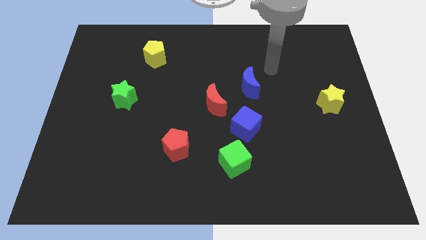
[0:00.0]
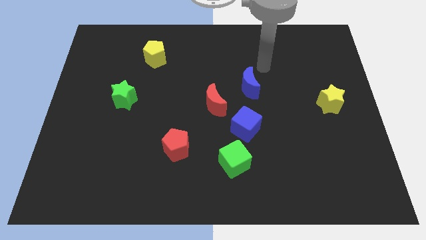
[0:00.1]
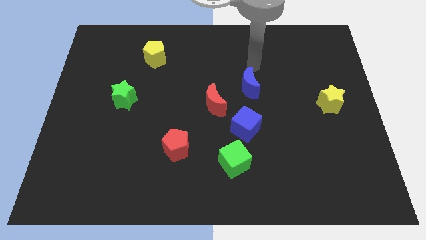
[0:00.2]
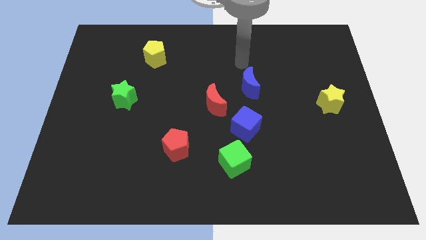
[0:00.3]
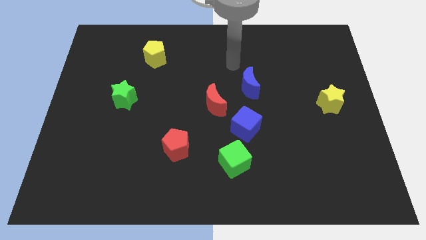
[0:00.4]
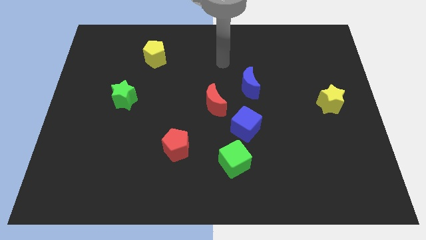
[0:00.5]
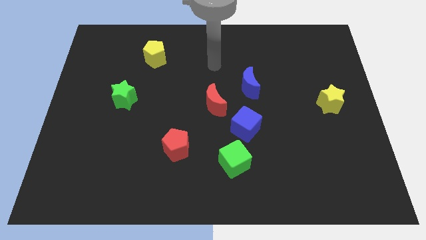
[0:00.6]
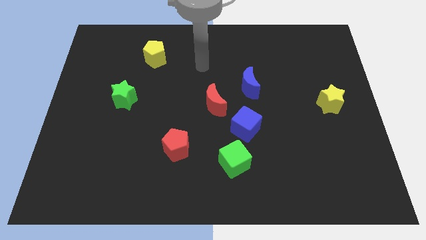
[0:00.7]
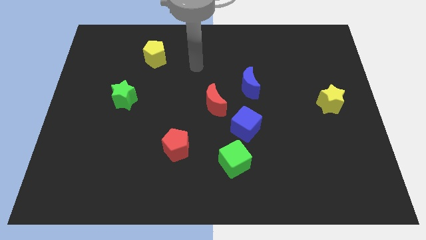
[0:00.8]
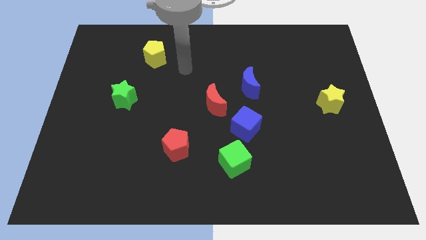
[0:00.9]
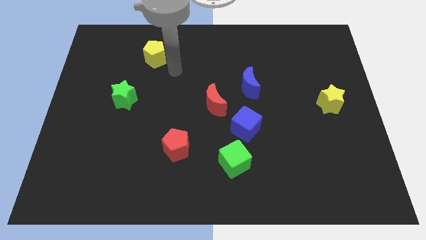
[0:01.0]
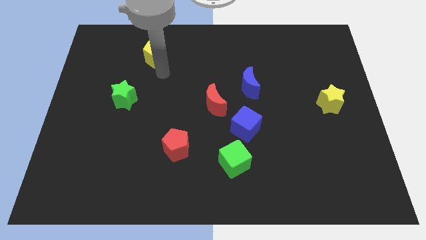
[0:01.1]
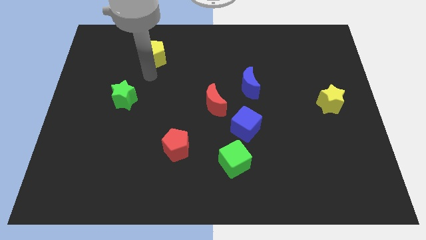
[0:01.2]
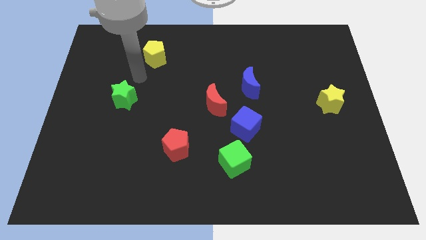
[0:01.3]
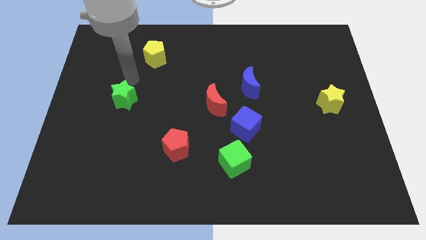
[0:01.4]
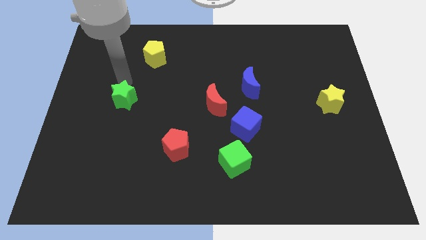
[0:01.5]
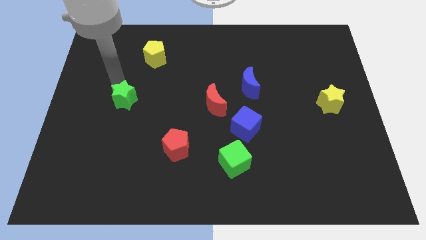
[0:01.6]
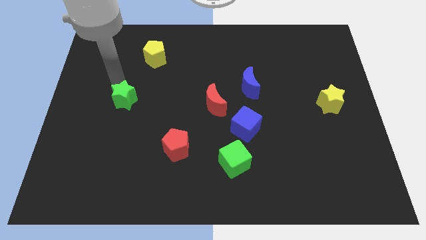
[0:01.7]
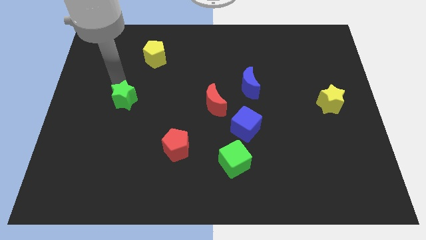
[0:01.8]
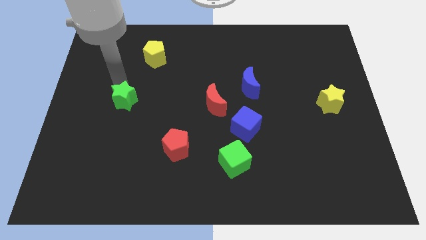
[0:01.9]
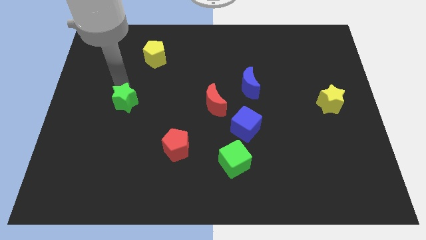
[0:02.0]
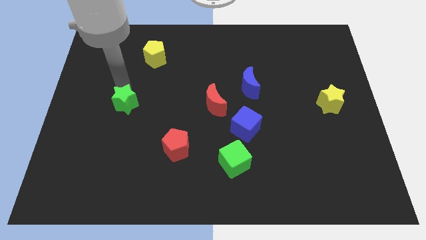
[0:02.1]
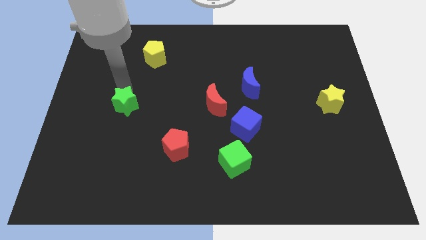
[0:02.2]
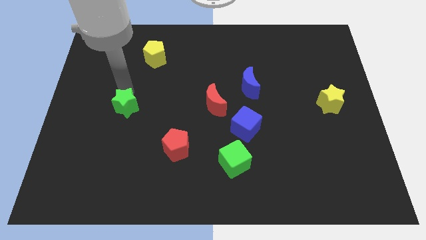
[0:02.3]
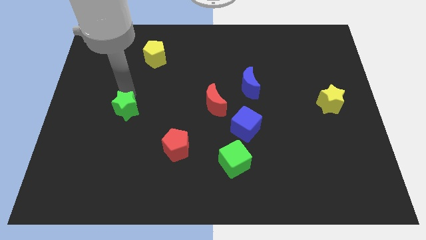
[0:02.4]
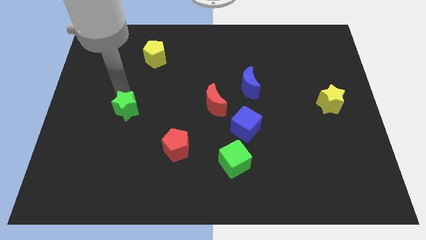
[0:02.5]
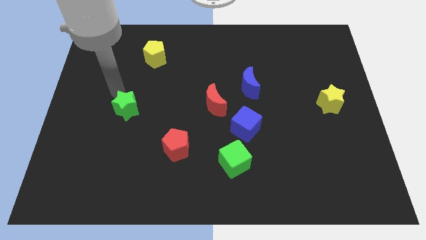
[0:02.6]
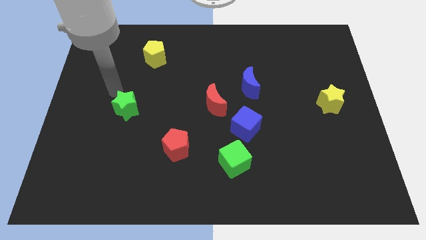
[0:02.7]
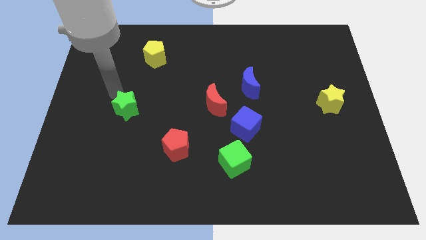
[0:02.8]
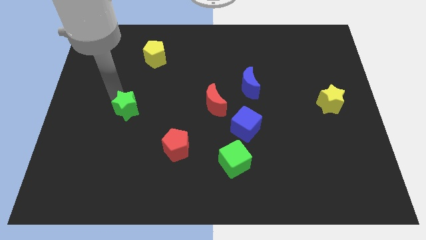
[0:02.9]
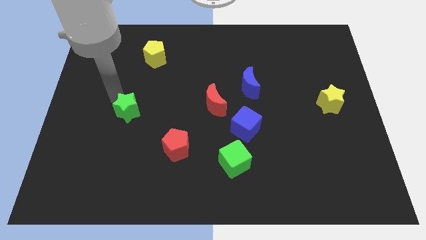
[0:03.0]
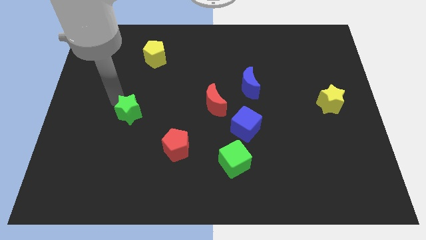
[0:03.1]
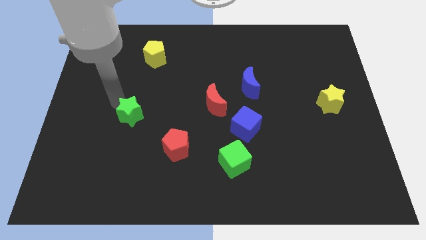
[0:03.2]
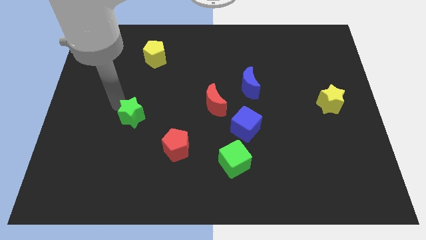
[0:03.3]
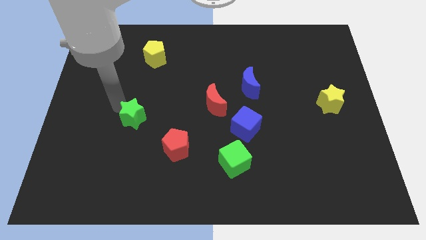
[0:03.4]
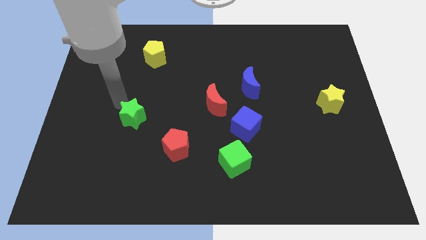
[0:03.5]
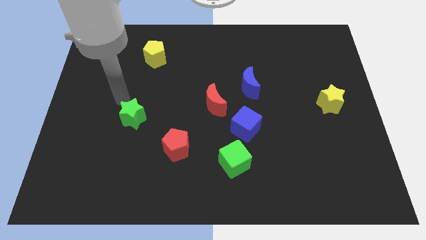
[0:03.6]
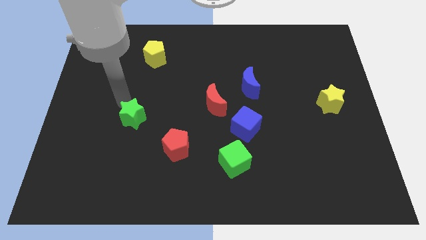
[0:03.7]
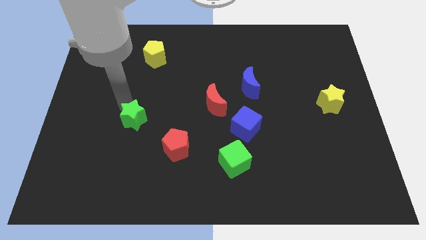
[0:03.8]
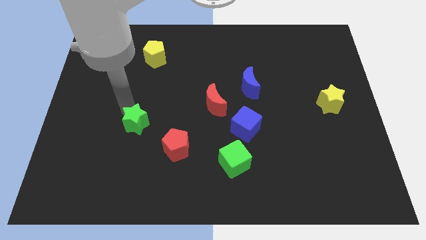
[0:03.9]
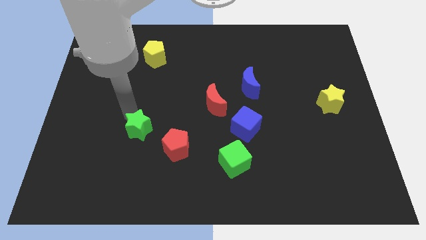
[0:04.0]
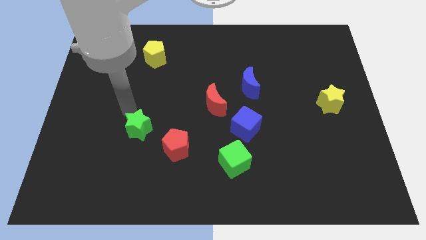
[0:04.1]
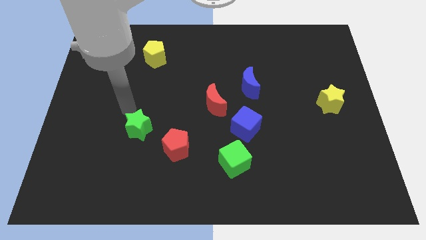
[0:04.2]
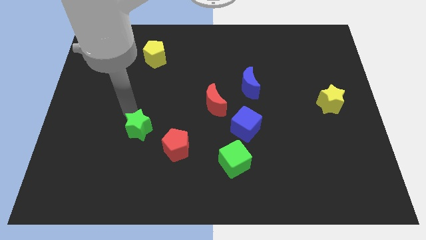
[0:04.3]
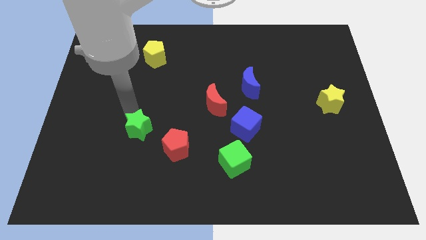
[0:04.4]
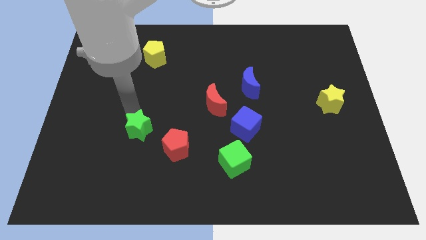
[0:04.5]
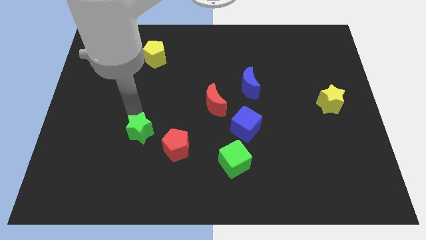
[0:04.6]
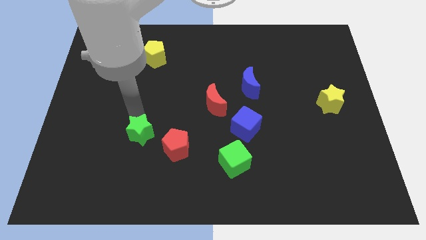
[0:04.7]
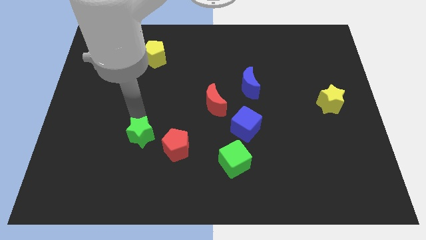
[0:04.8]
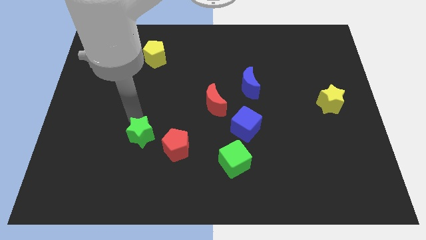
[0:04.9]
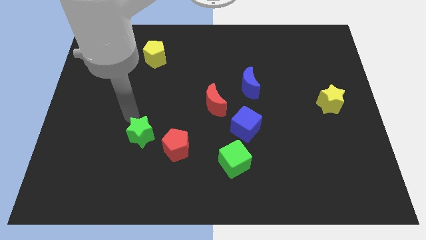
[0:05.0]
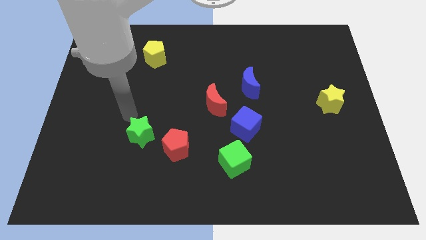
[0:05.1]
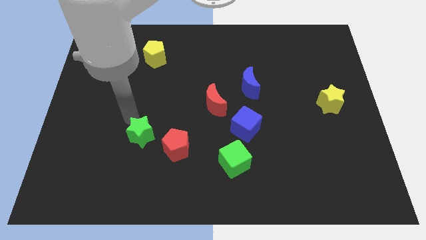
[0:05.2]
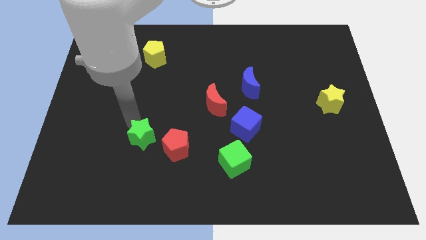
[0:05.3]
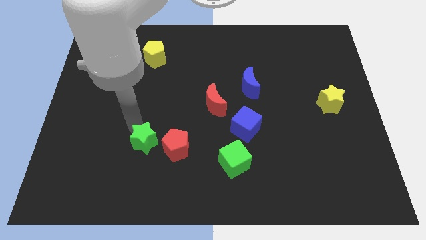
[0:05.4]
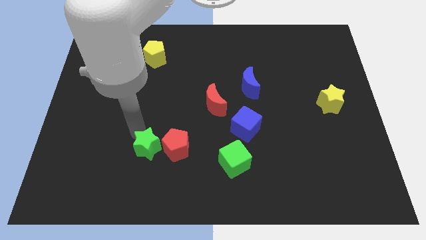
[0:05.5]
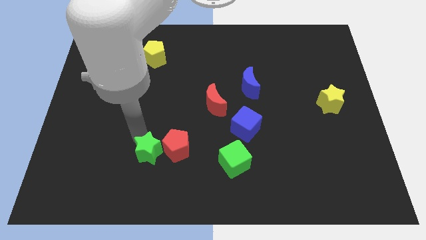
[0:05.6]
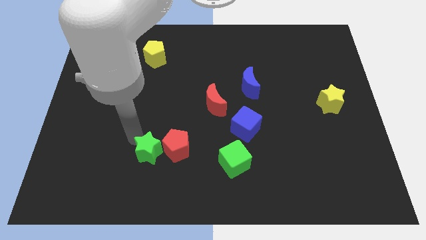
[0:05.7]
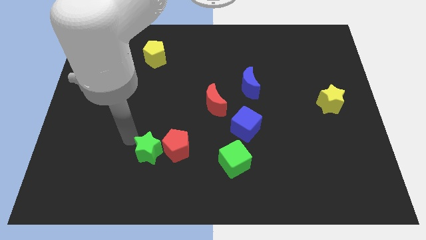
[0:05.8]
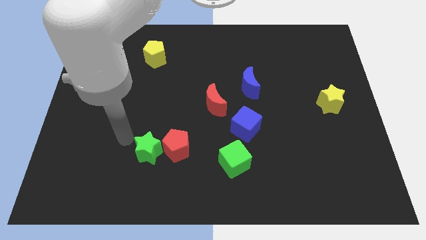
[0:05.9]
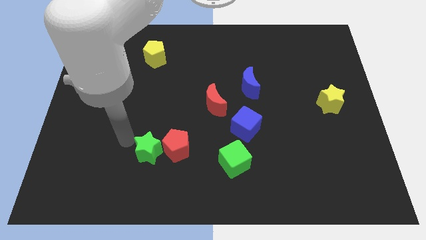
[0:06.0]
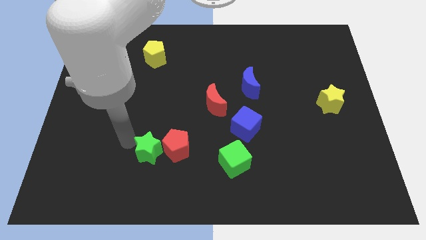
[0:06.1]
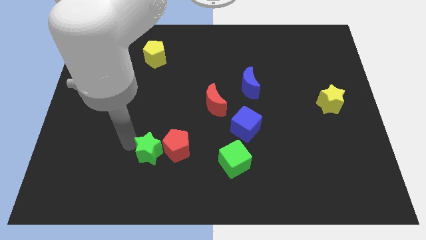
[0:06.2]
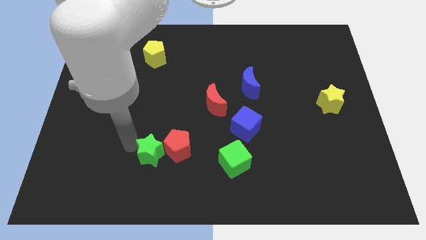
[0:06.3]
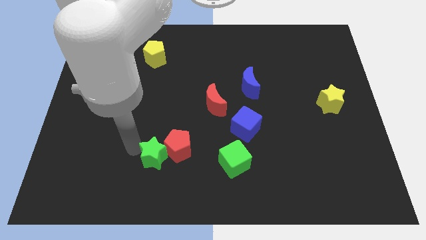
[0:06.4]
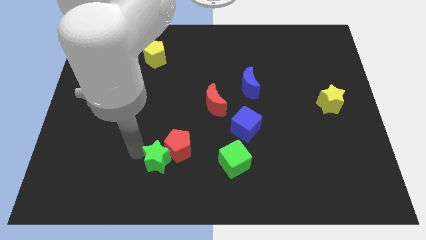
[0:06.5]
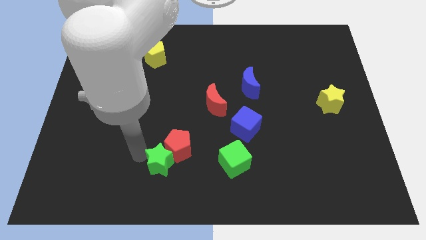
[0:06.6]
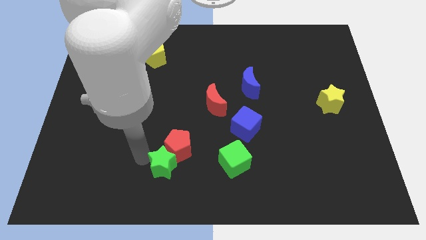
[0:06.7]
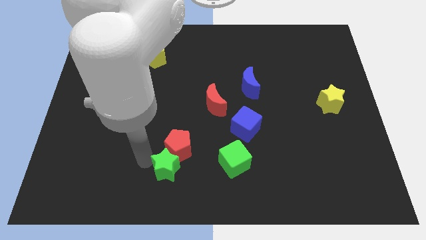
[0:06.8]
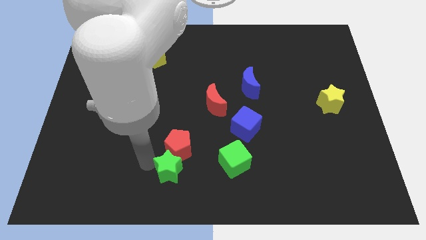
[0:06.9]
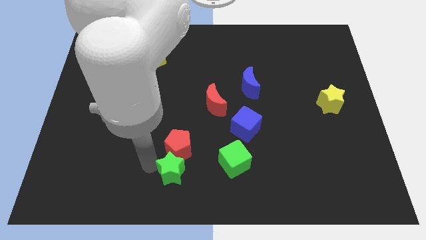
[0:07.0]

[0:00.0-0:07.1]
put the green star to the bottom right of the red pentagon
